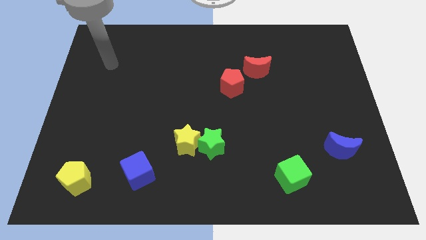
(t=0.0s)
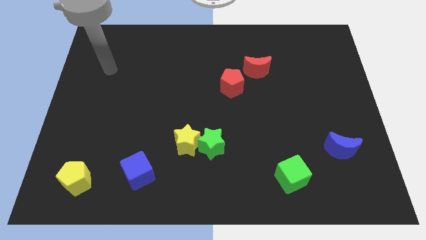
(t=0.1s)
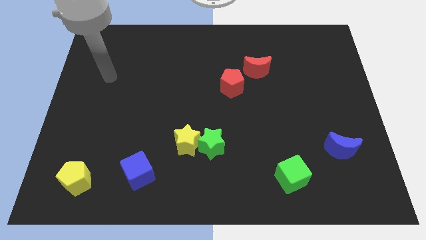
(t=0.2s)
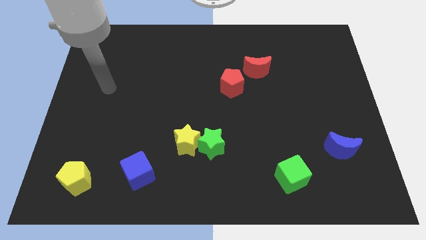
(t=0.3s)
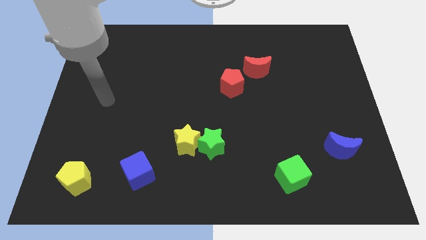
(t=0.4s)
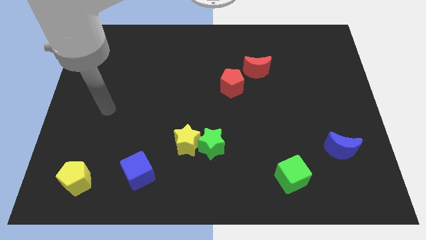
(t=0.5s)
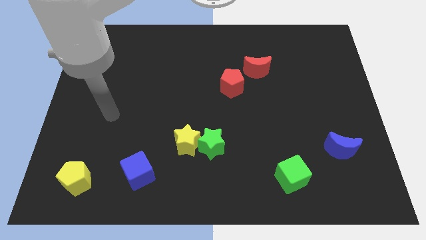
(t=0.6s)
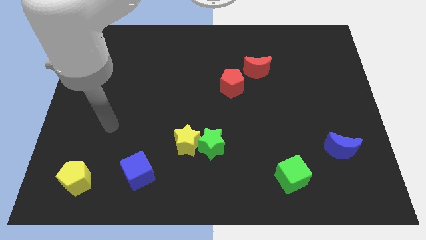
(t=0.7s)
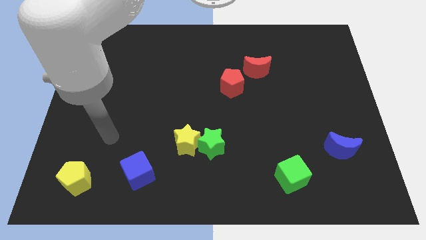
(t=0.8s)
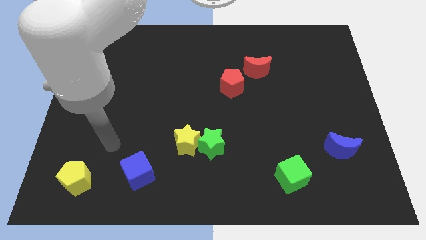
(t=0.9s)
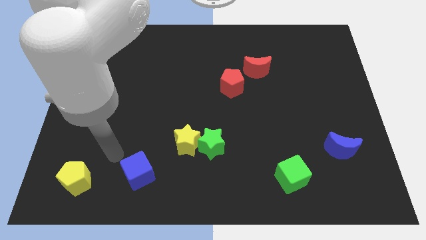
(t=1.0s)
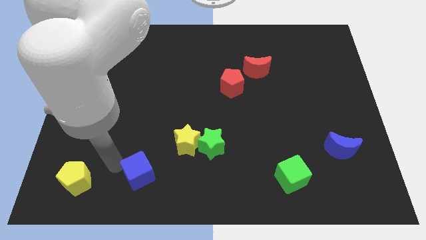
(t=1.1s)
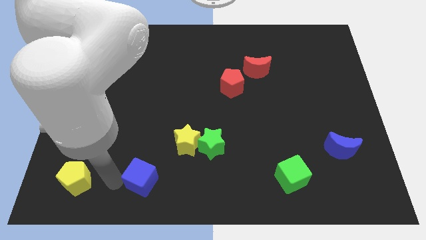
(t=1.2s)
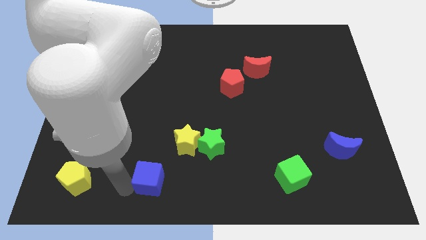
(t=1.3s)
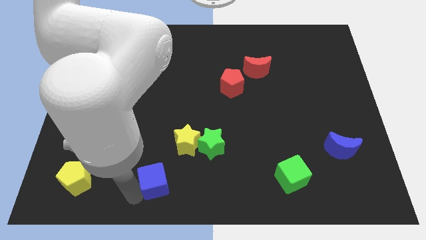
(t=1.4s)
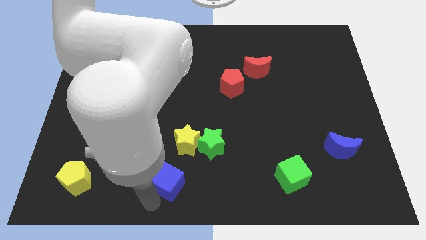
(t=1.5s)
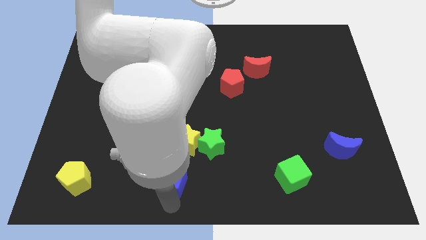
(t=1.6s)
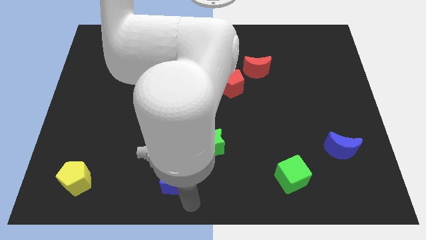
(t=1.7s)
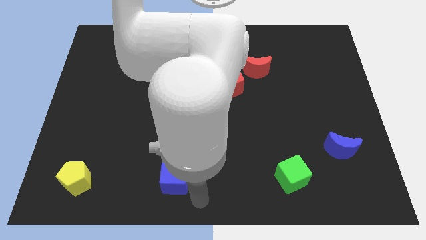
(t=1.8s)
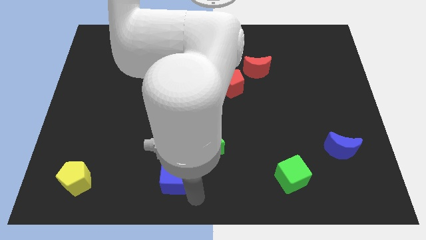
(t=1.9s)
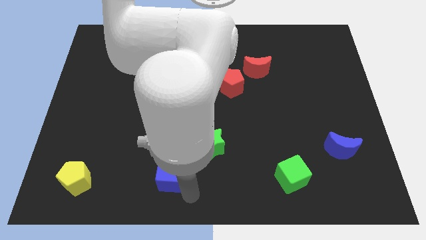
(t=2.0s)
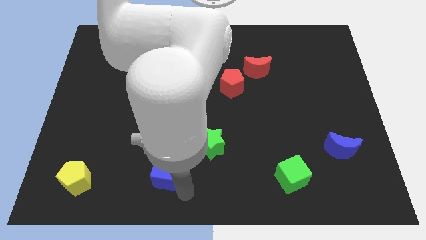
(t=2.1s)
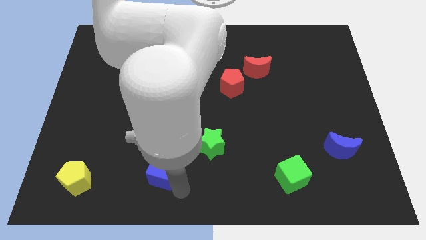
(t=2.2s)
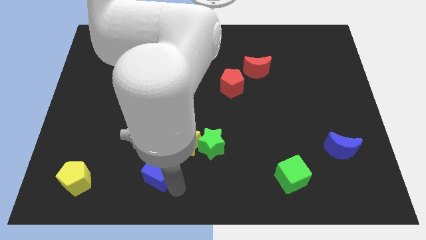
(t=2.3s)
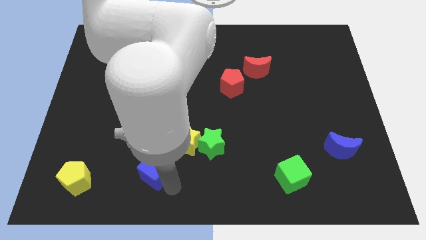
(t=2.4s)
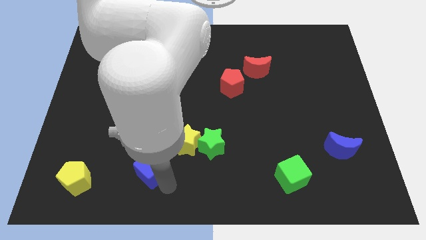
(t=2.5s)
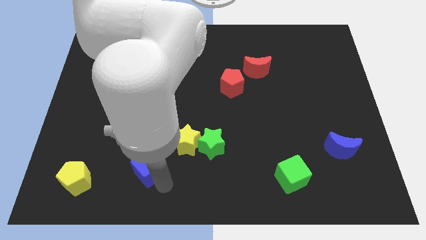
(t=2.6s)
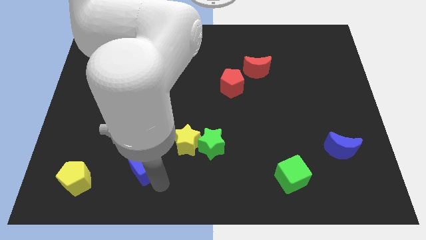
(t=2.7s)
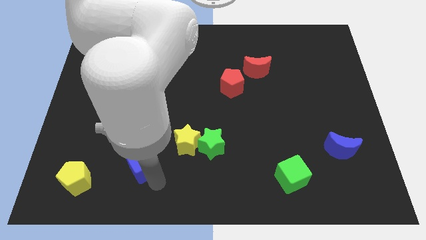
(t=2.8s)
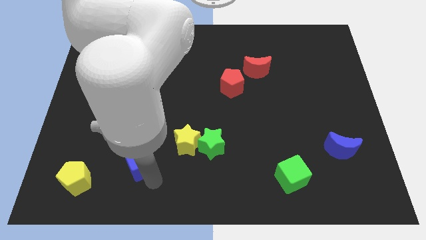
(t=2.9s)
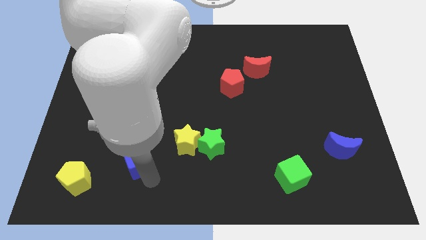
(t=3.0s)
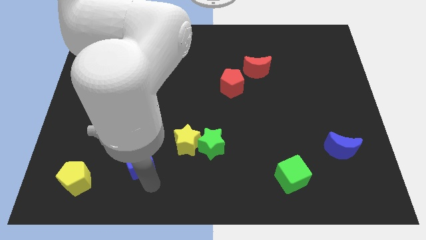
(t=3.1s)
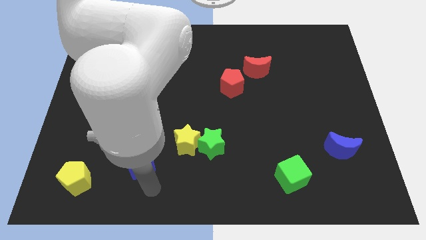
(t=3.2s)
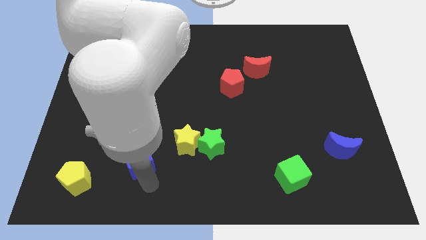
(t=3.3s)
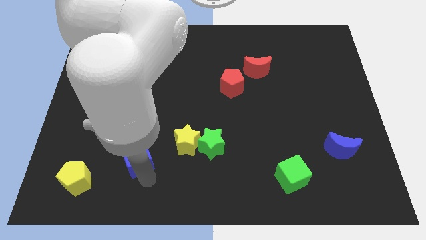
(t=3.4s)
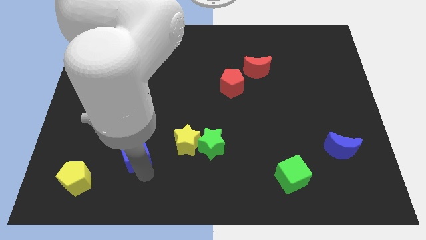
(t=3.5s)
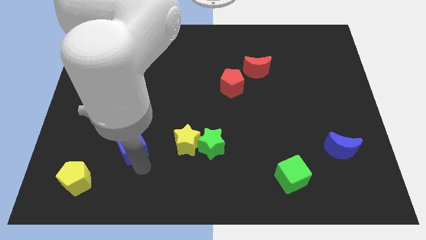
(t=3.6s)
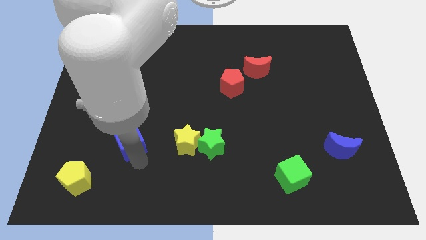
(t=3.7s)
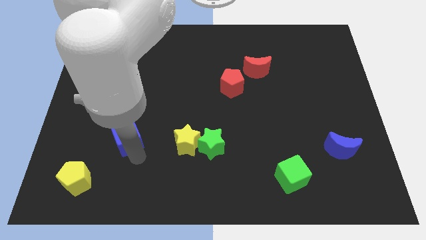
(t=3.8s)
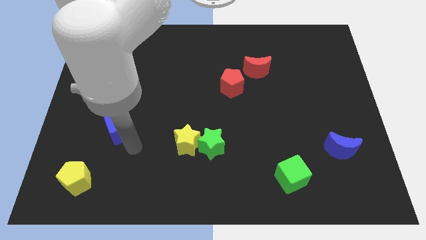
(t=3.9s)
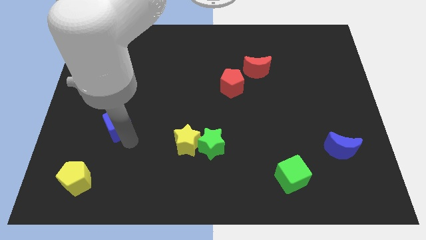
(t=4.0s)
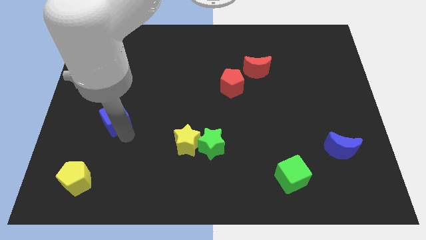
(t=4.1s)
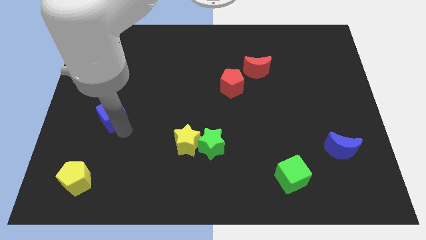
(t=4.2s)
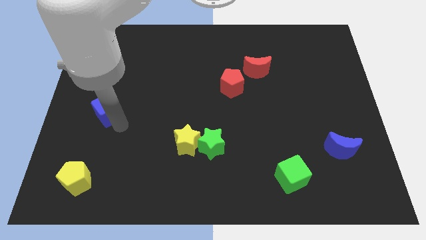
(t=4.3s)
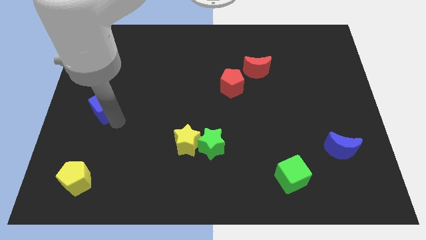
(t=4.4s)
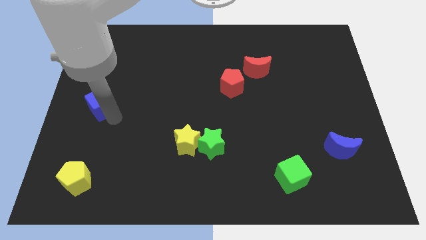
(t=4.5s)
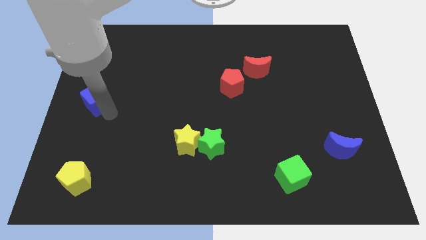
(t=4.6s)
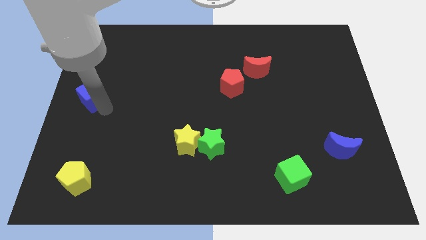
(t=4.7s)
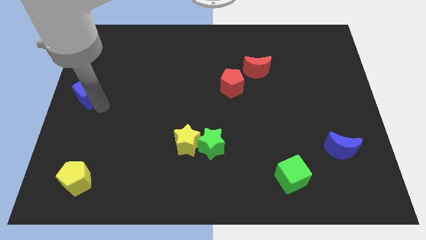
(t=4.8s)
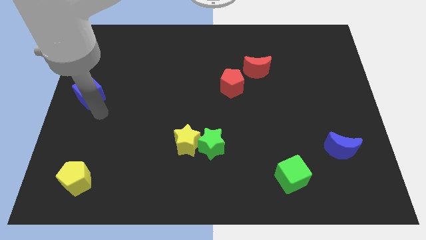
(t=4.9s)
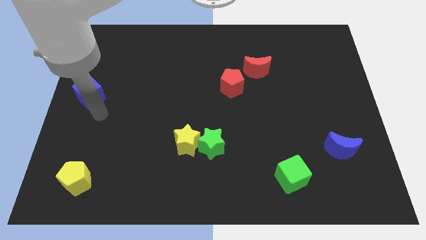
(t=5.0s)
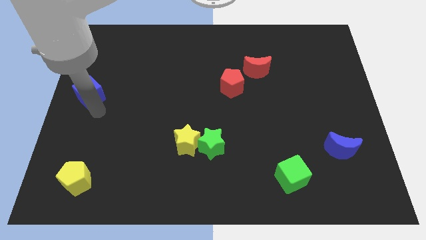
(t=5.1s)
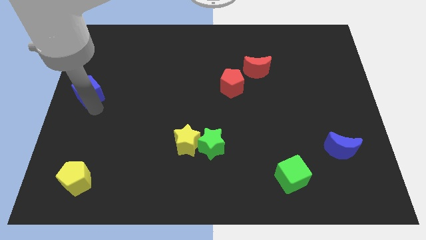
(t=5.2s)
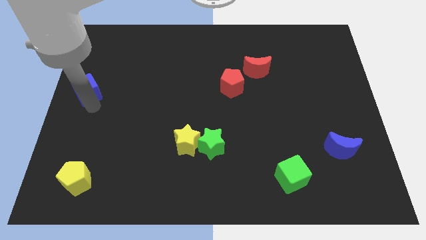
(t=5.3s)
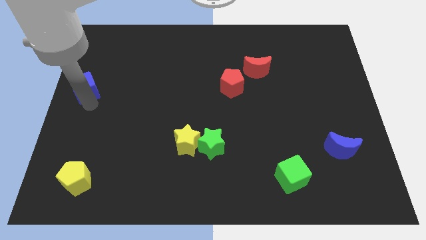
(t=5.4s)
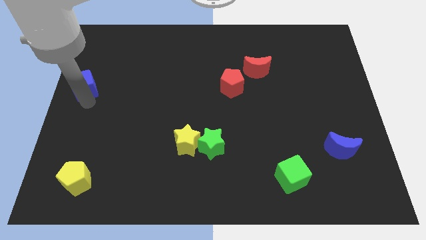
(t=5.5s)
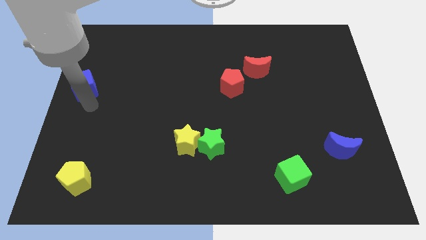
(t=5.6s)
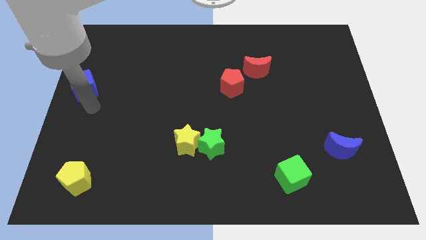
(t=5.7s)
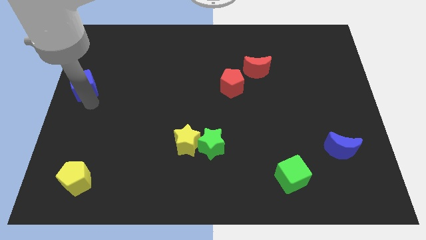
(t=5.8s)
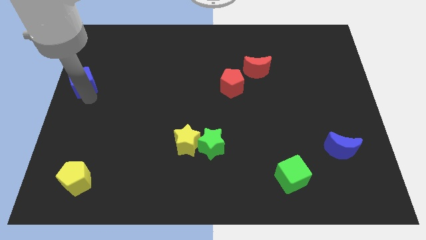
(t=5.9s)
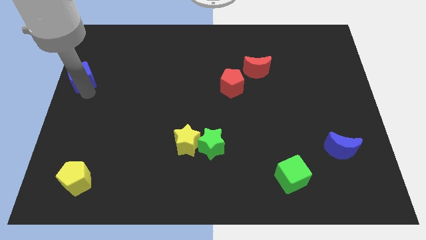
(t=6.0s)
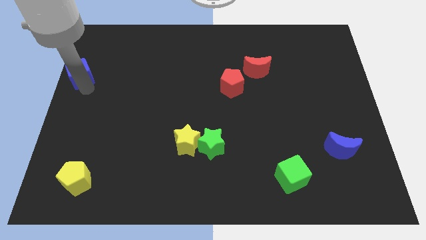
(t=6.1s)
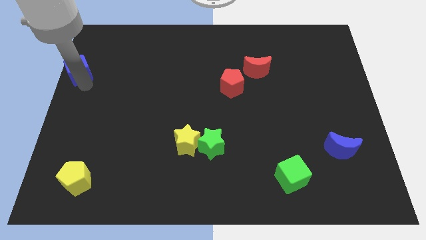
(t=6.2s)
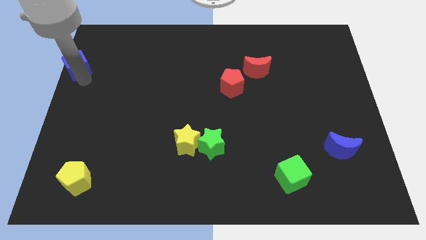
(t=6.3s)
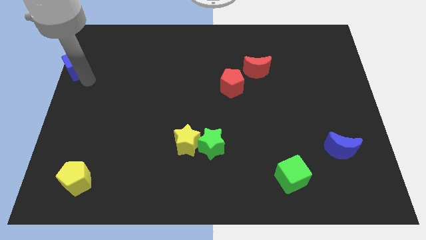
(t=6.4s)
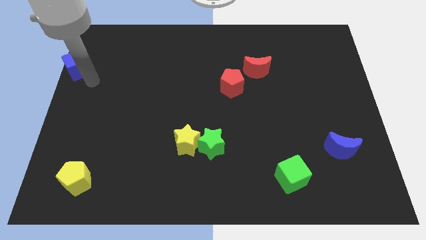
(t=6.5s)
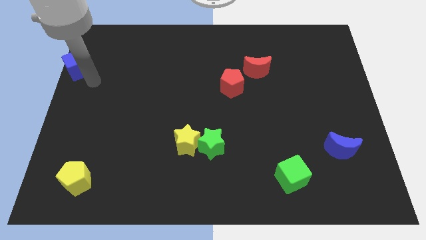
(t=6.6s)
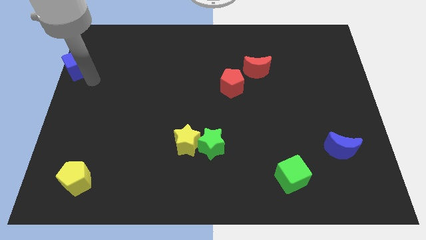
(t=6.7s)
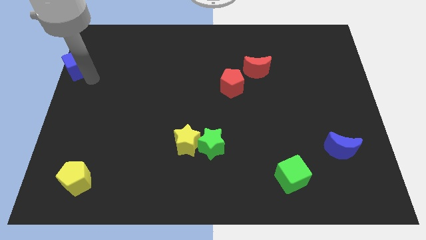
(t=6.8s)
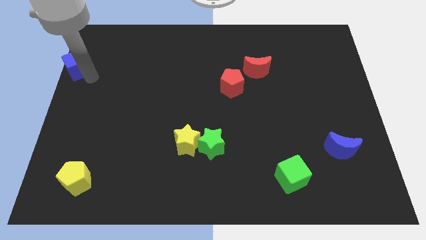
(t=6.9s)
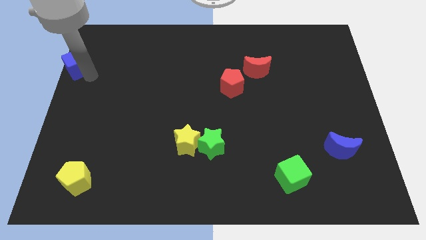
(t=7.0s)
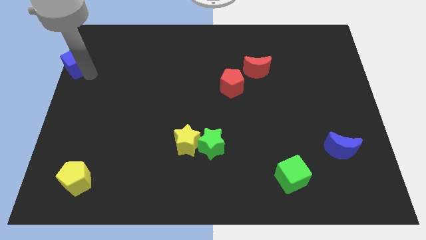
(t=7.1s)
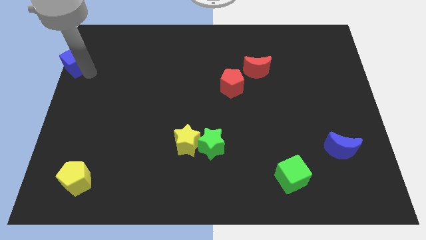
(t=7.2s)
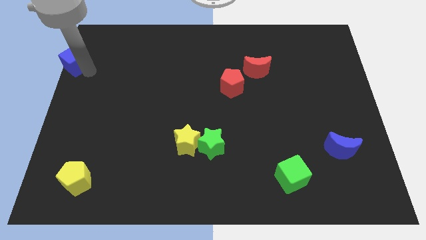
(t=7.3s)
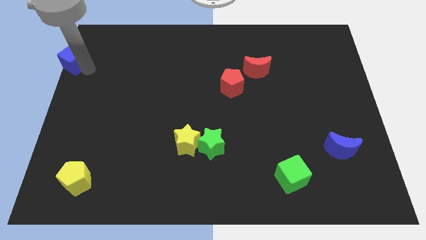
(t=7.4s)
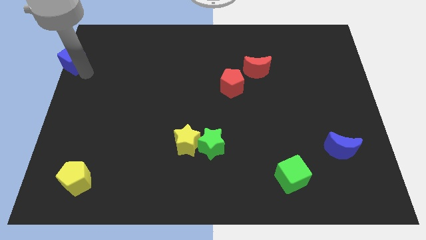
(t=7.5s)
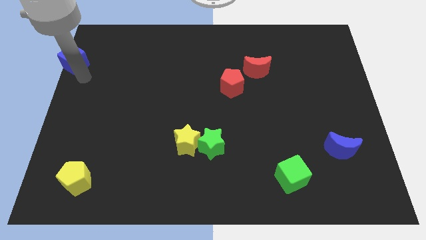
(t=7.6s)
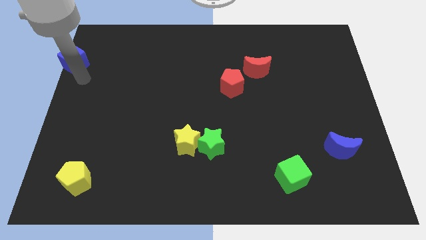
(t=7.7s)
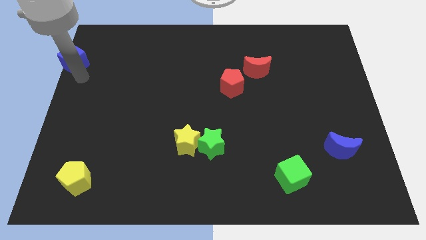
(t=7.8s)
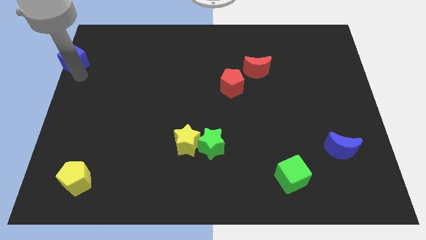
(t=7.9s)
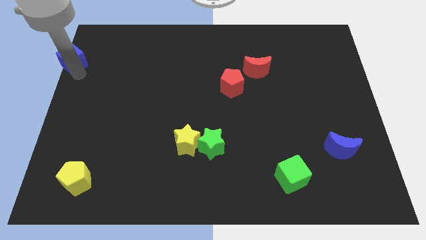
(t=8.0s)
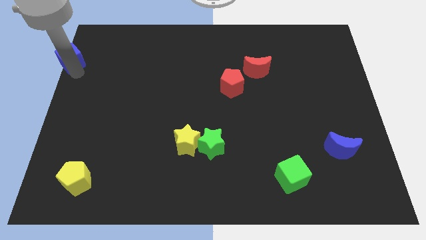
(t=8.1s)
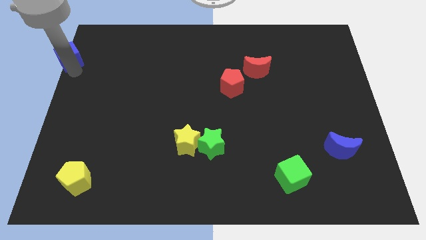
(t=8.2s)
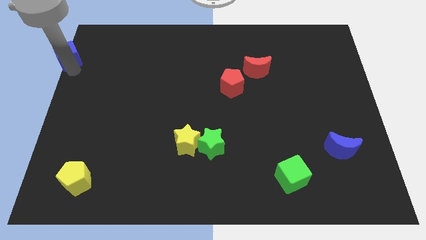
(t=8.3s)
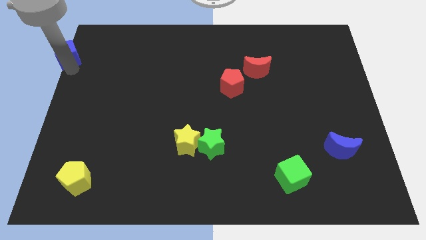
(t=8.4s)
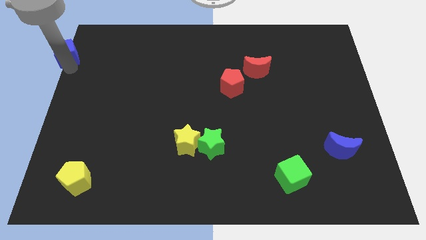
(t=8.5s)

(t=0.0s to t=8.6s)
move the blue cube to the upper left corner
